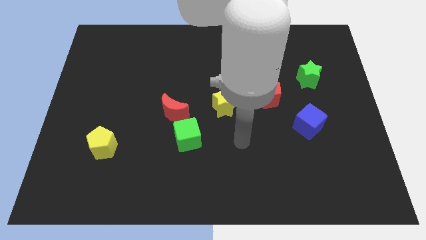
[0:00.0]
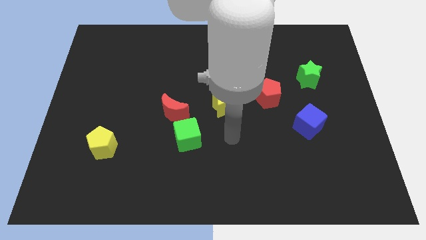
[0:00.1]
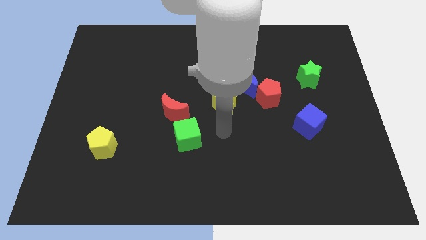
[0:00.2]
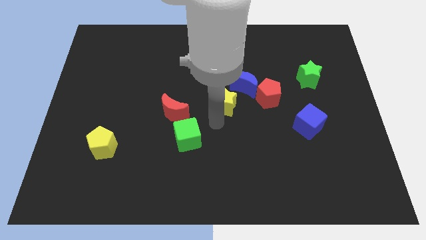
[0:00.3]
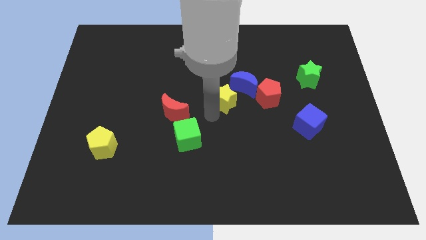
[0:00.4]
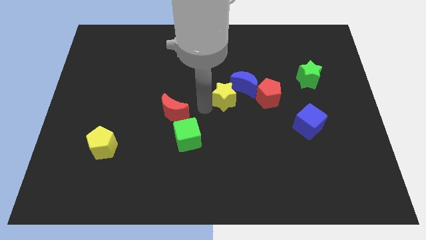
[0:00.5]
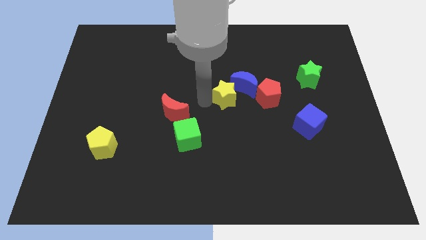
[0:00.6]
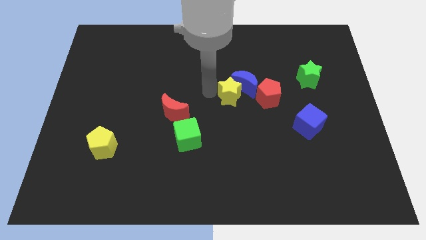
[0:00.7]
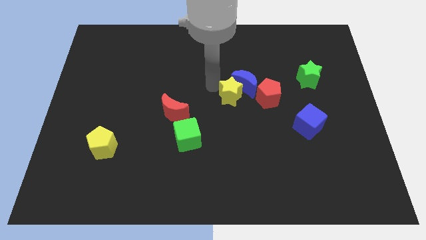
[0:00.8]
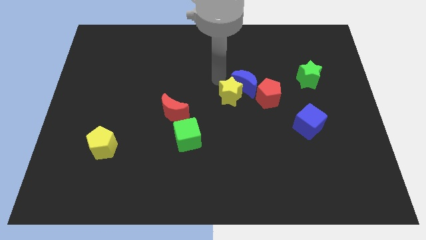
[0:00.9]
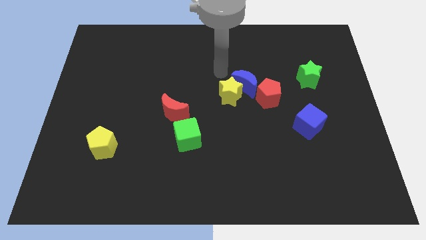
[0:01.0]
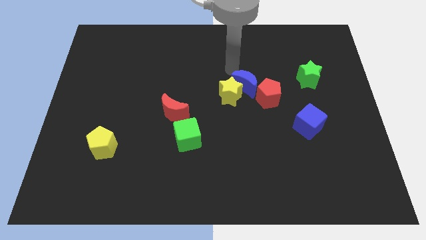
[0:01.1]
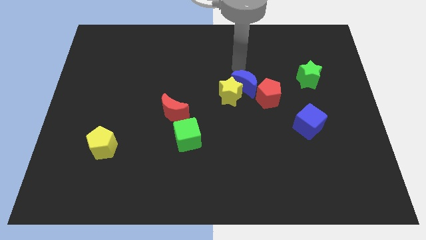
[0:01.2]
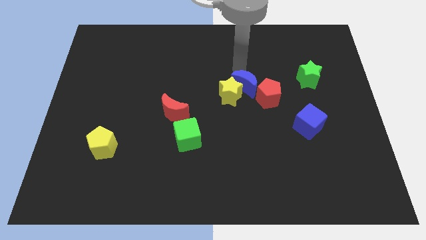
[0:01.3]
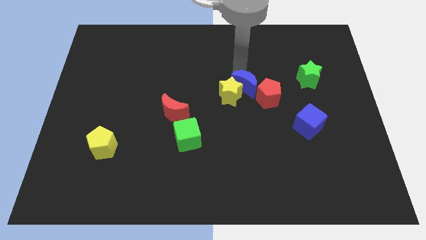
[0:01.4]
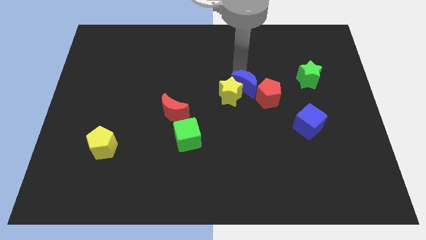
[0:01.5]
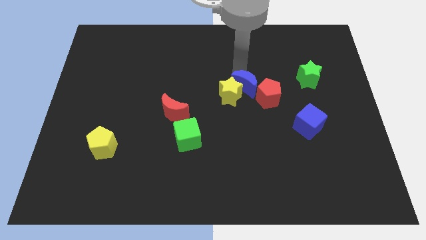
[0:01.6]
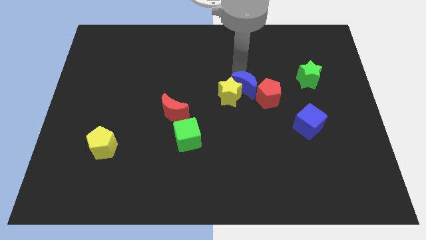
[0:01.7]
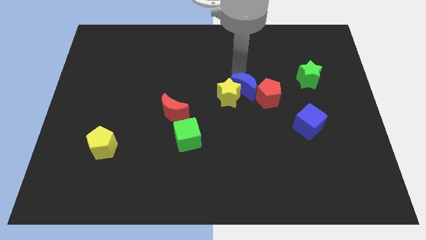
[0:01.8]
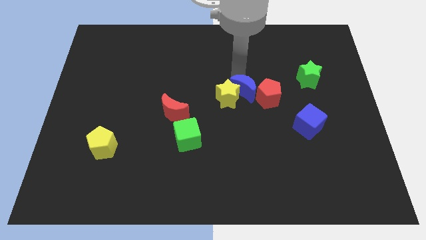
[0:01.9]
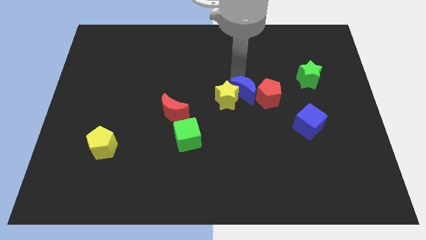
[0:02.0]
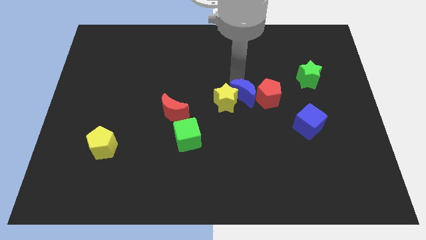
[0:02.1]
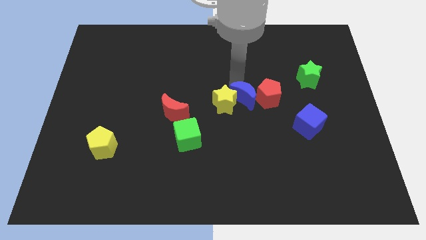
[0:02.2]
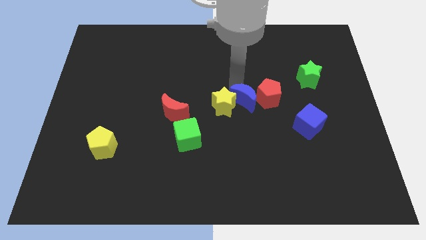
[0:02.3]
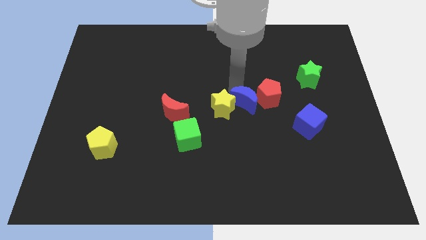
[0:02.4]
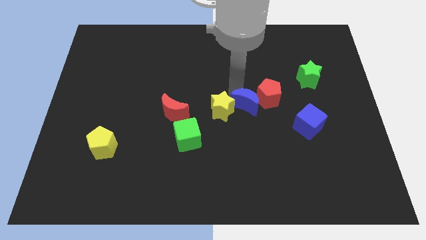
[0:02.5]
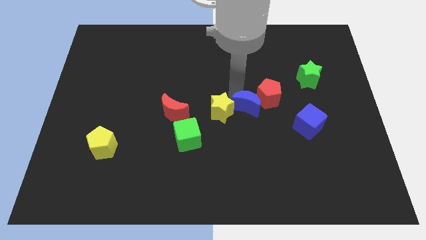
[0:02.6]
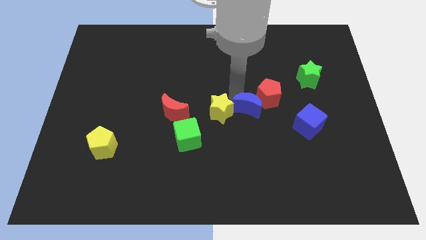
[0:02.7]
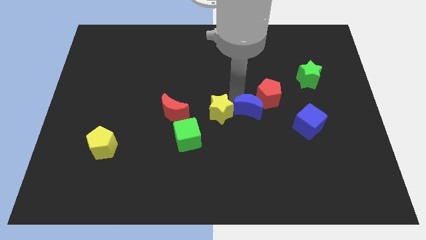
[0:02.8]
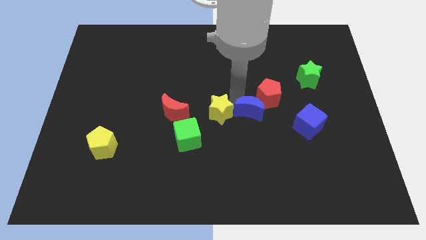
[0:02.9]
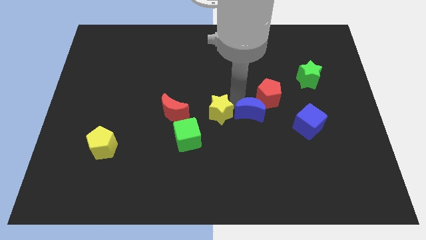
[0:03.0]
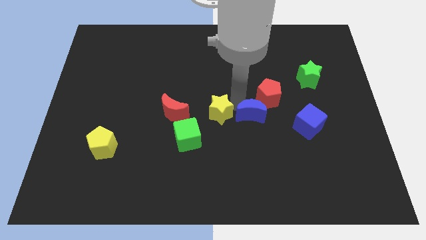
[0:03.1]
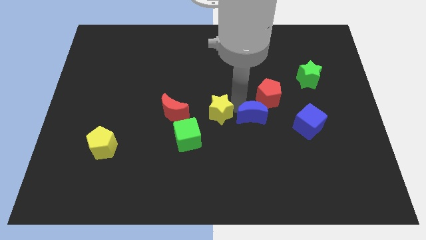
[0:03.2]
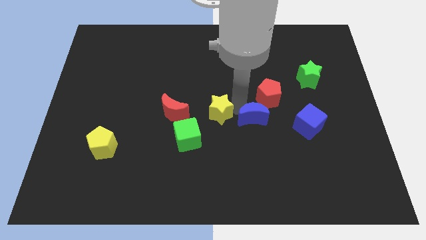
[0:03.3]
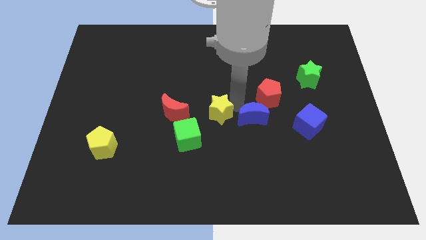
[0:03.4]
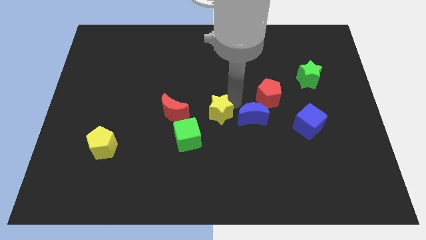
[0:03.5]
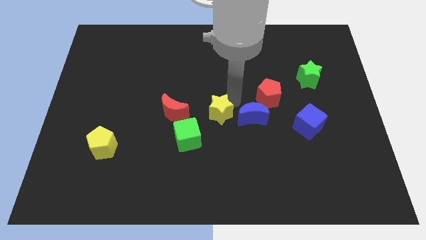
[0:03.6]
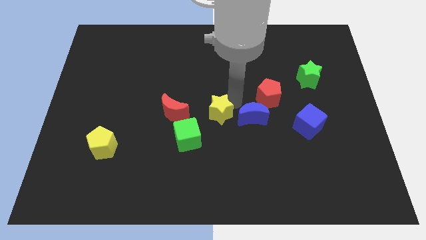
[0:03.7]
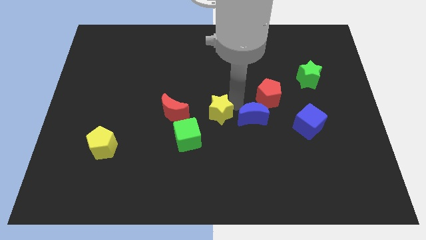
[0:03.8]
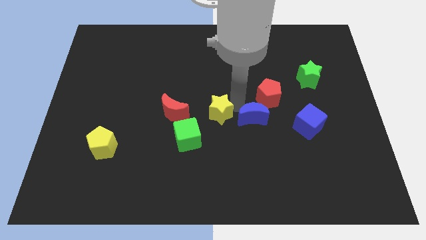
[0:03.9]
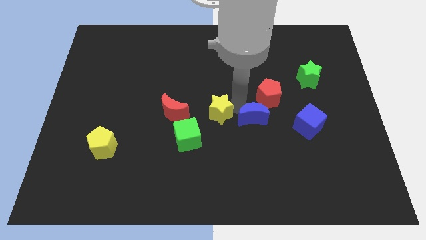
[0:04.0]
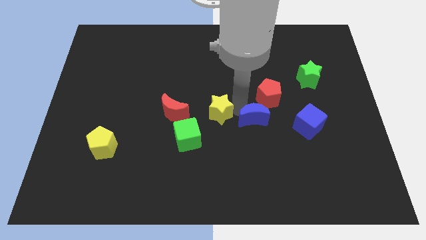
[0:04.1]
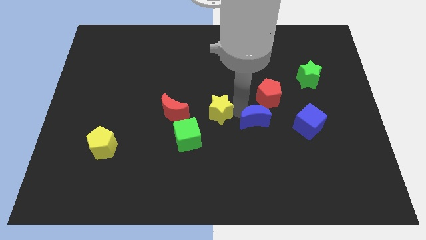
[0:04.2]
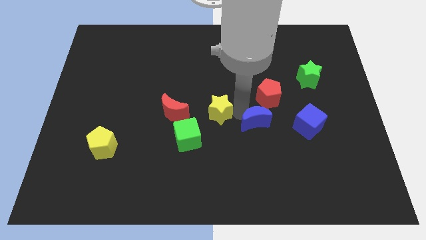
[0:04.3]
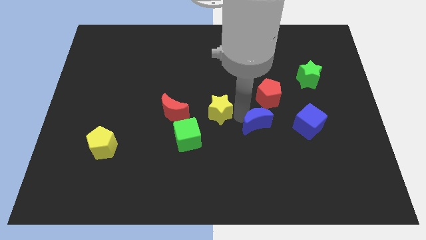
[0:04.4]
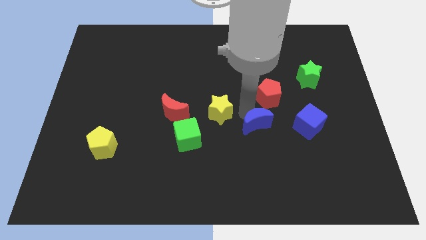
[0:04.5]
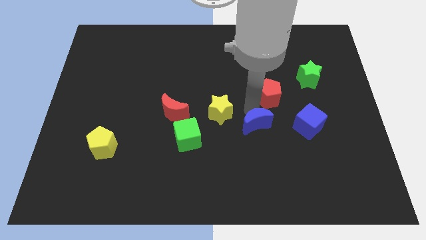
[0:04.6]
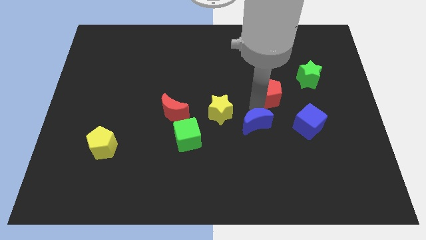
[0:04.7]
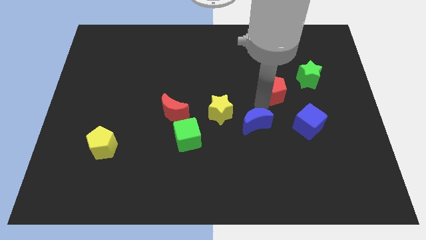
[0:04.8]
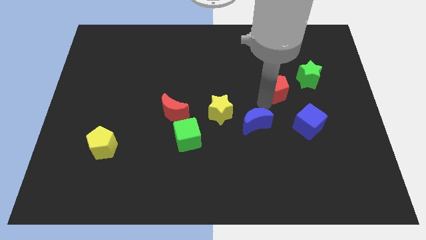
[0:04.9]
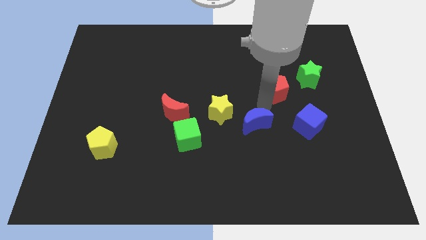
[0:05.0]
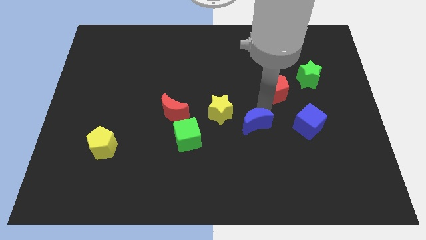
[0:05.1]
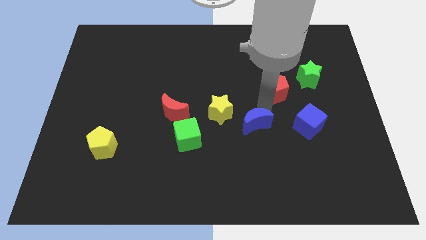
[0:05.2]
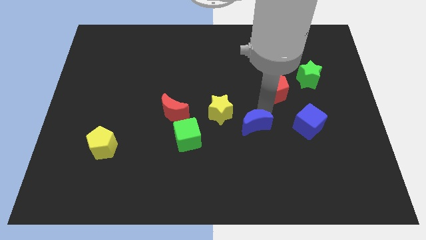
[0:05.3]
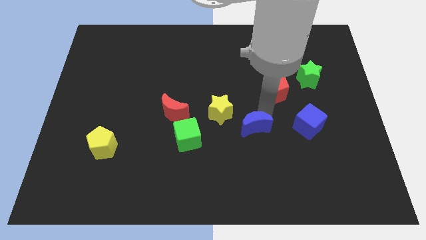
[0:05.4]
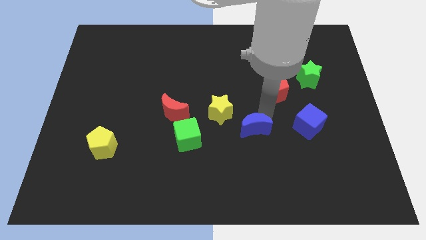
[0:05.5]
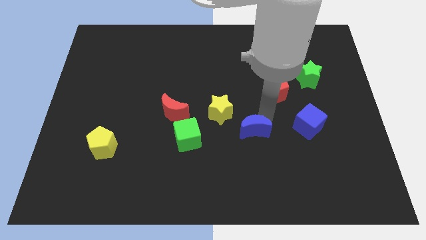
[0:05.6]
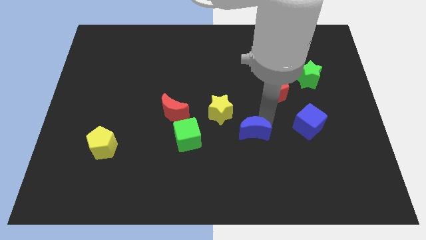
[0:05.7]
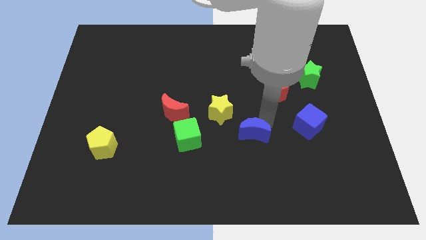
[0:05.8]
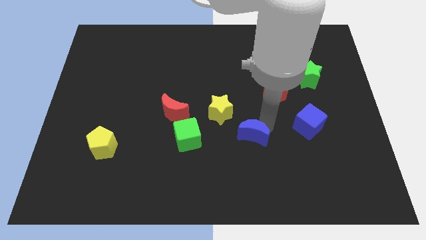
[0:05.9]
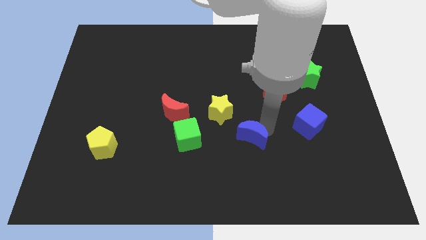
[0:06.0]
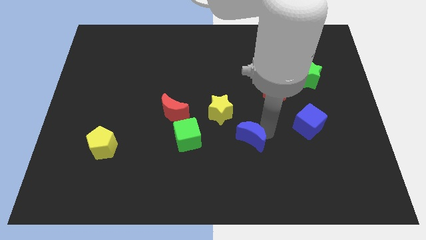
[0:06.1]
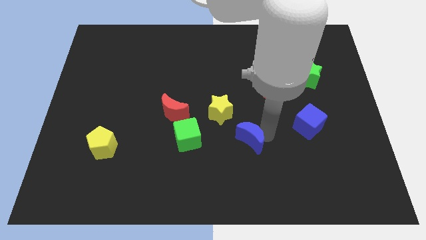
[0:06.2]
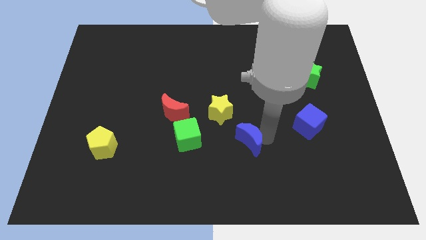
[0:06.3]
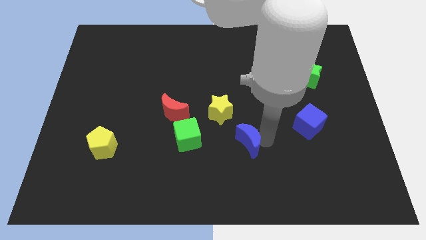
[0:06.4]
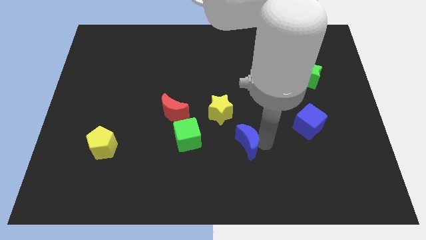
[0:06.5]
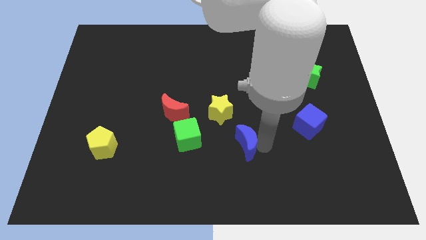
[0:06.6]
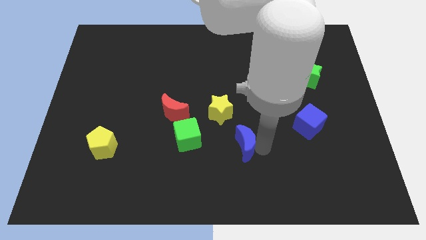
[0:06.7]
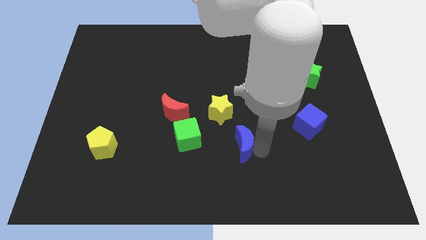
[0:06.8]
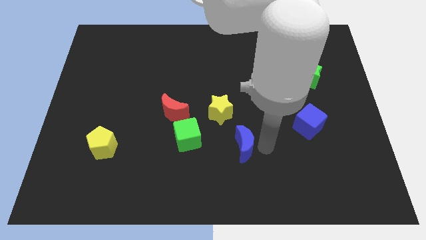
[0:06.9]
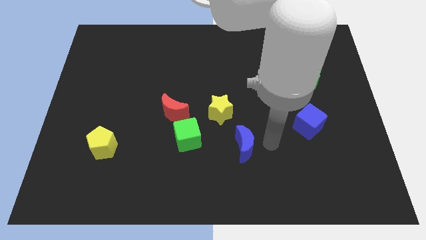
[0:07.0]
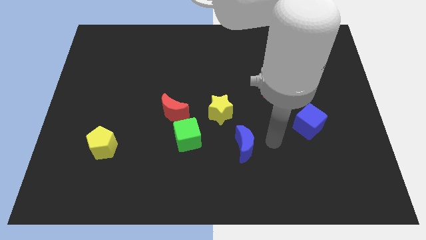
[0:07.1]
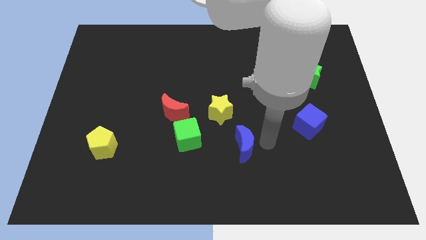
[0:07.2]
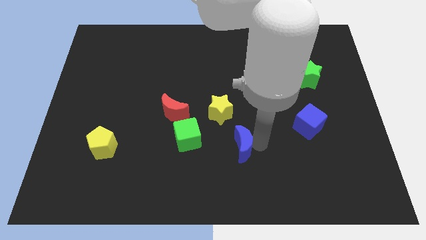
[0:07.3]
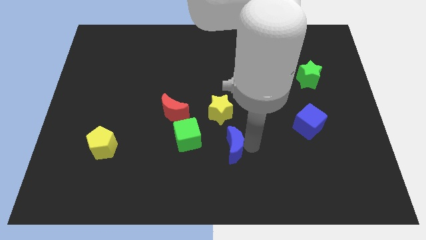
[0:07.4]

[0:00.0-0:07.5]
put the blue moon to the bottom side of the yellow star
